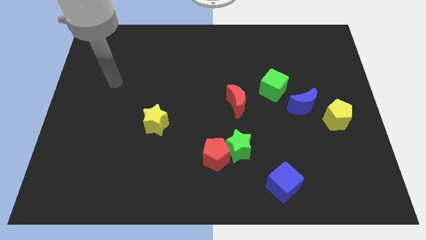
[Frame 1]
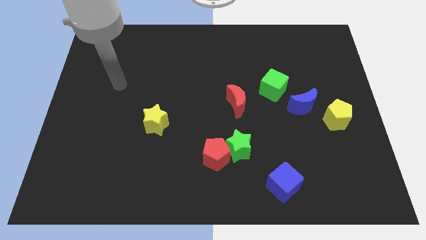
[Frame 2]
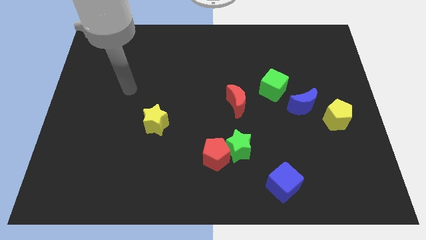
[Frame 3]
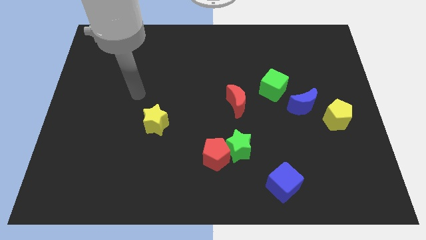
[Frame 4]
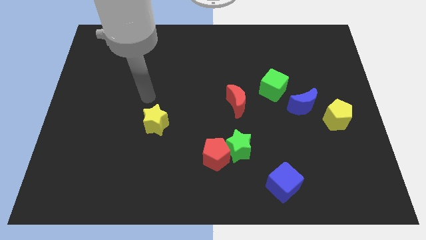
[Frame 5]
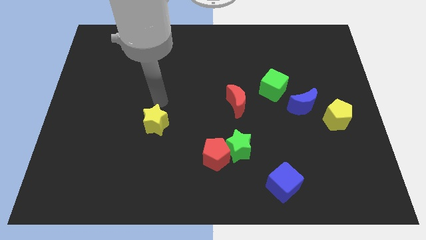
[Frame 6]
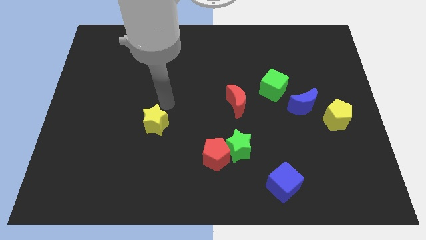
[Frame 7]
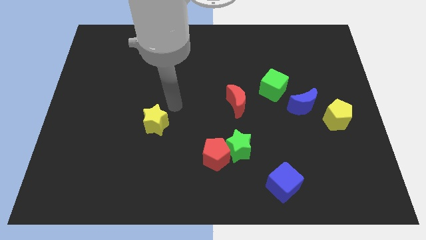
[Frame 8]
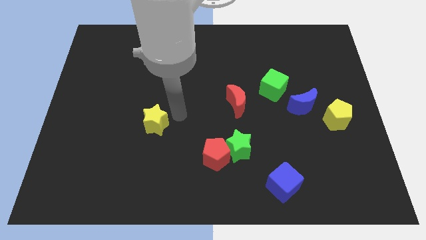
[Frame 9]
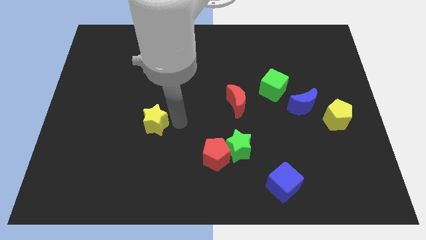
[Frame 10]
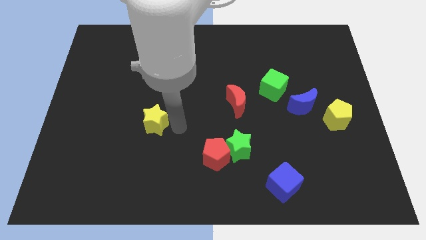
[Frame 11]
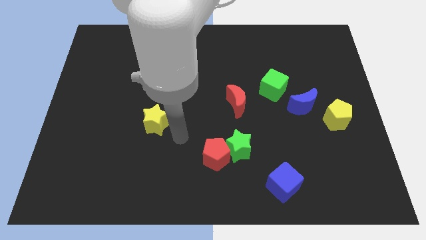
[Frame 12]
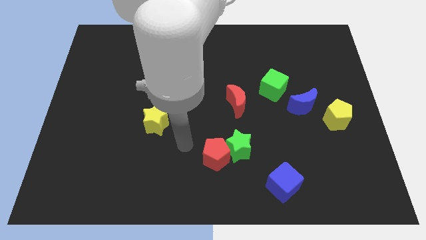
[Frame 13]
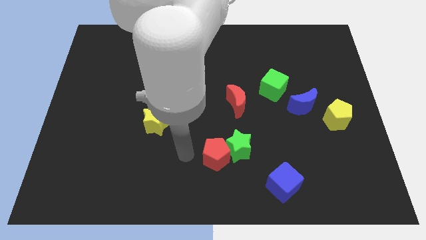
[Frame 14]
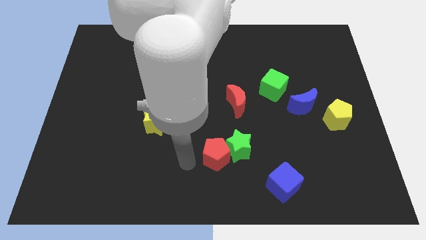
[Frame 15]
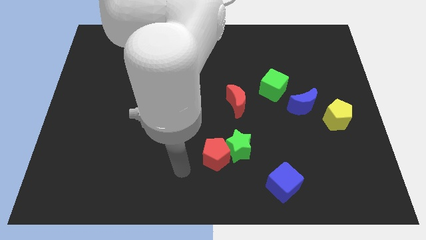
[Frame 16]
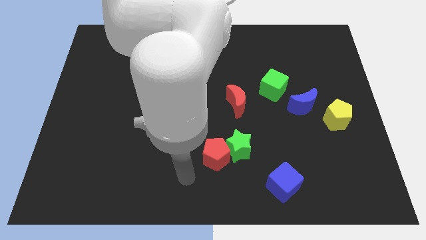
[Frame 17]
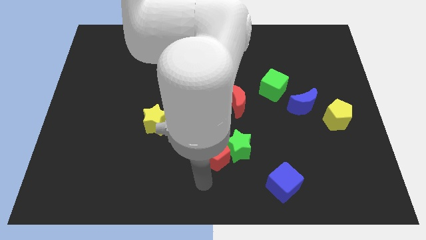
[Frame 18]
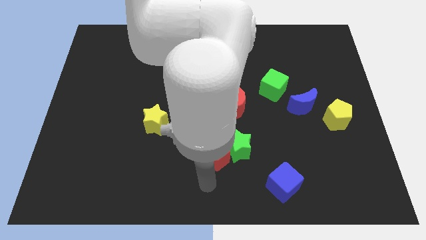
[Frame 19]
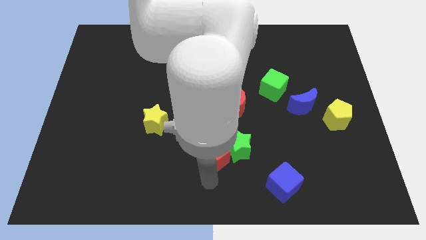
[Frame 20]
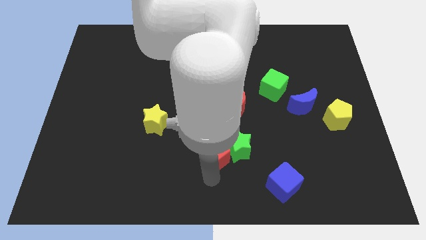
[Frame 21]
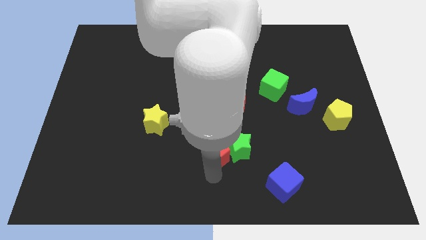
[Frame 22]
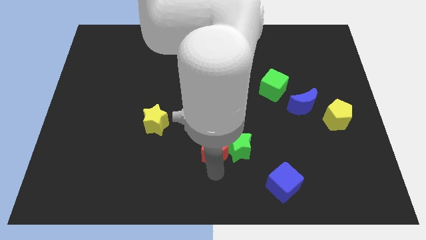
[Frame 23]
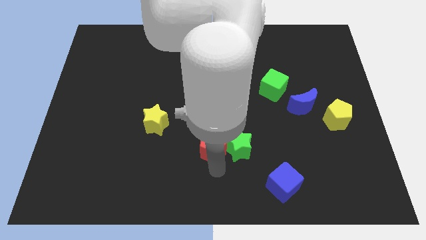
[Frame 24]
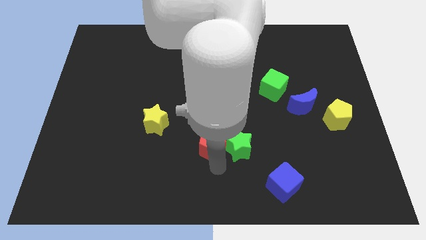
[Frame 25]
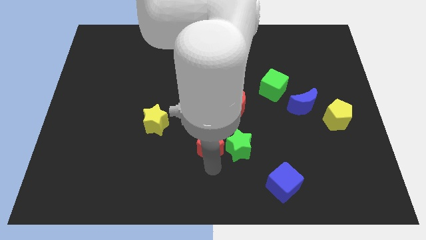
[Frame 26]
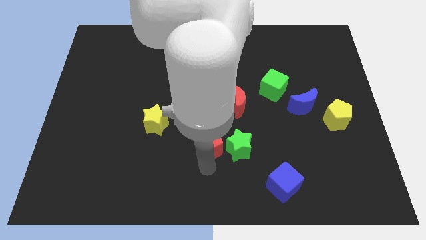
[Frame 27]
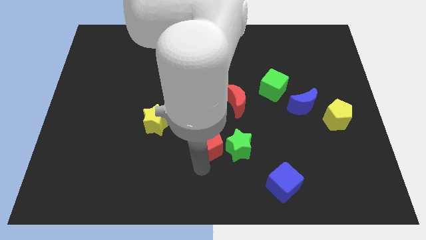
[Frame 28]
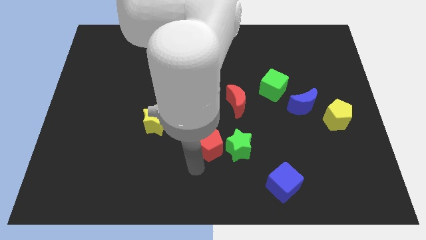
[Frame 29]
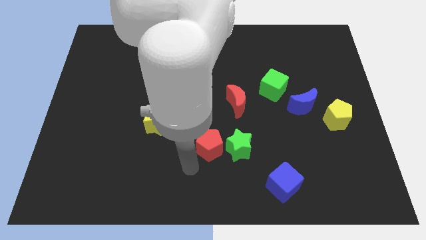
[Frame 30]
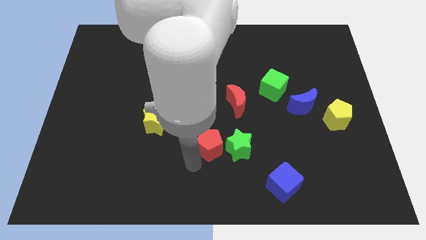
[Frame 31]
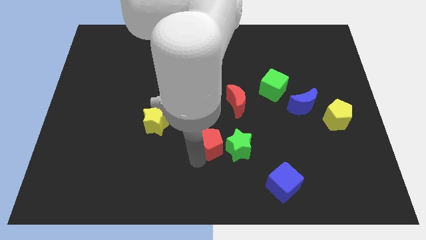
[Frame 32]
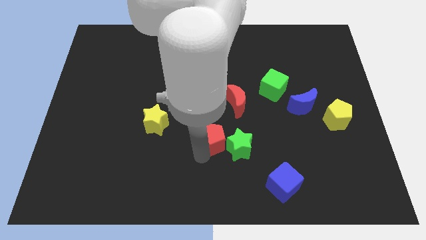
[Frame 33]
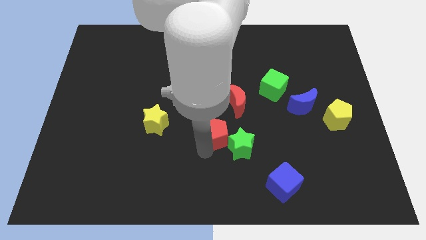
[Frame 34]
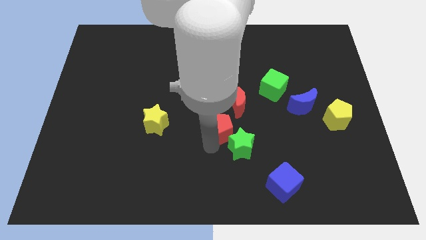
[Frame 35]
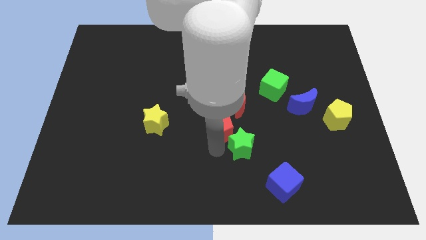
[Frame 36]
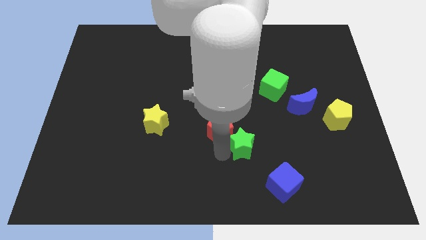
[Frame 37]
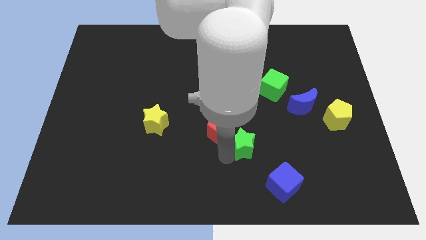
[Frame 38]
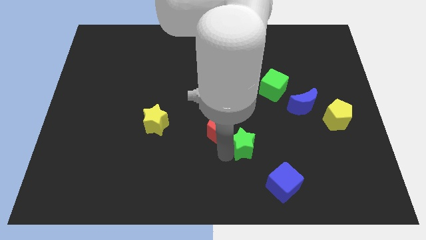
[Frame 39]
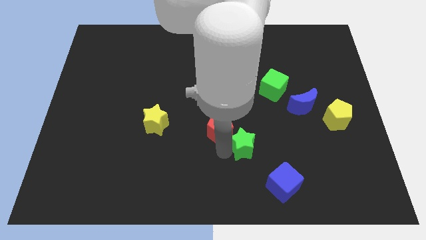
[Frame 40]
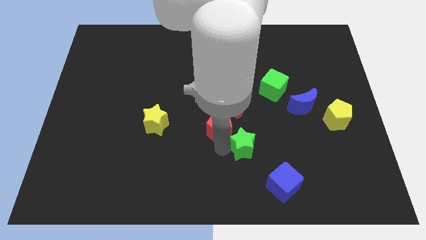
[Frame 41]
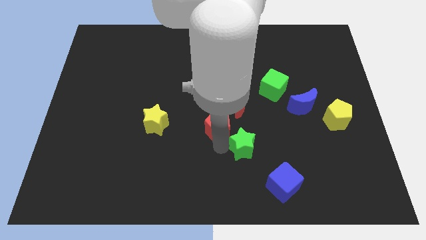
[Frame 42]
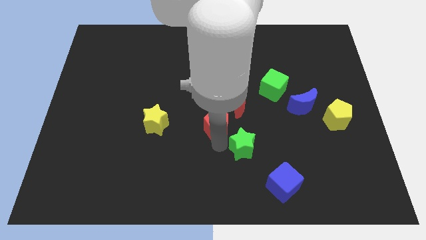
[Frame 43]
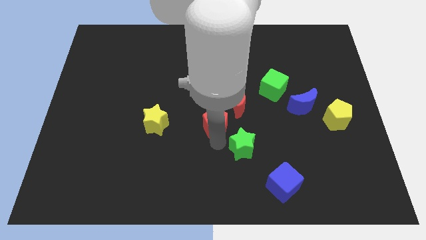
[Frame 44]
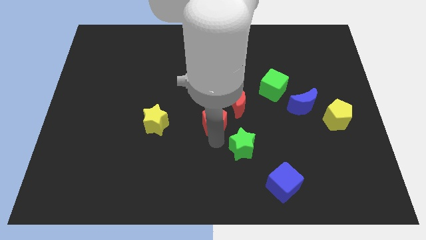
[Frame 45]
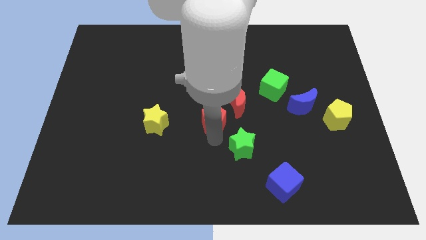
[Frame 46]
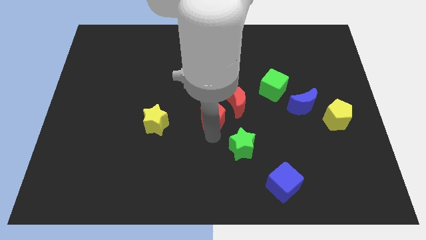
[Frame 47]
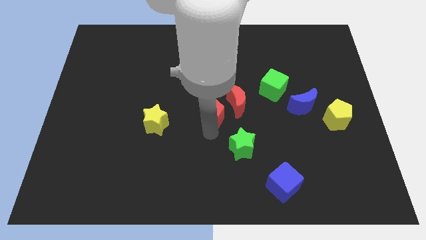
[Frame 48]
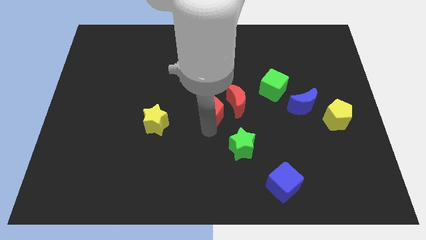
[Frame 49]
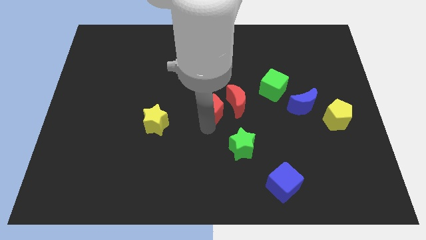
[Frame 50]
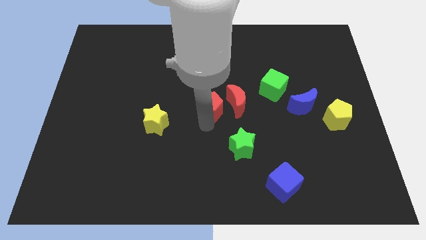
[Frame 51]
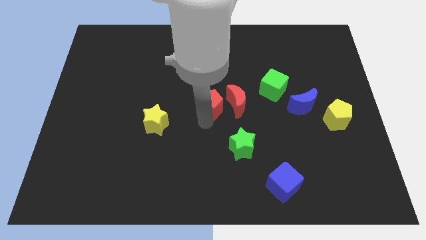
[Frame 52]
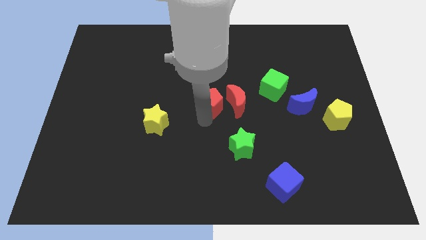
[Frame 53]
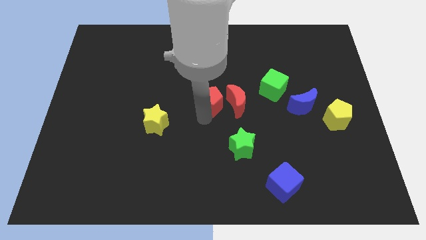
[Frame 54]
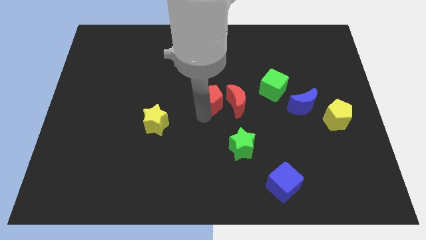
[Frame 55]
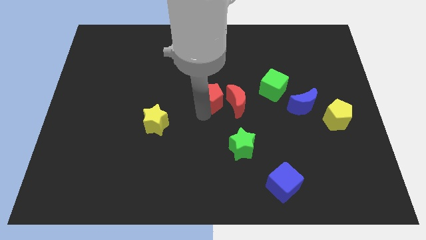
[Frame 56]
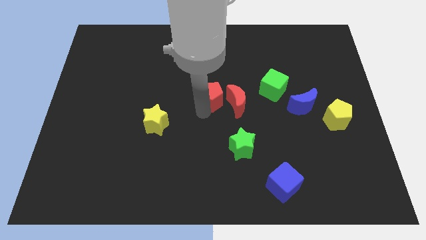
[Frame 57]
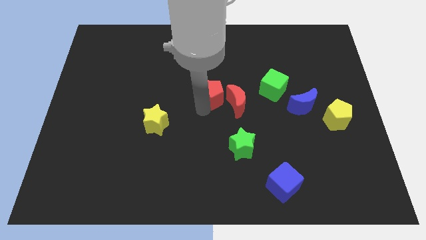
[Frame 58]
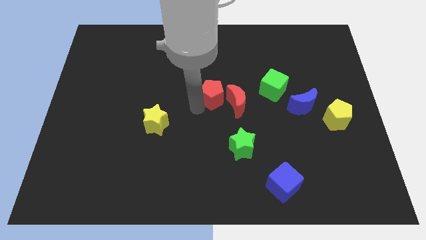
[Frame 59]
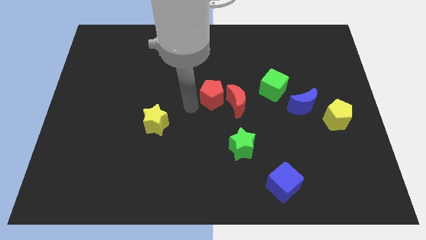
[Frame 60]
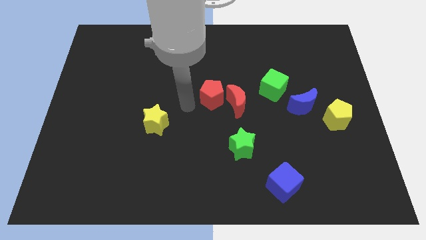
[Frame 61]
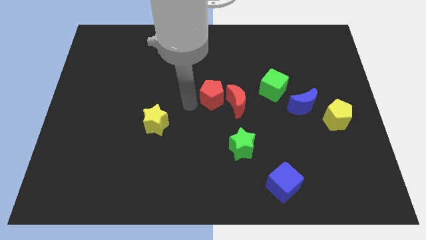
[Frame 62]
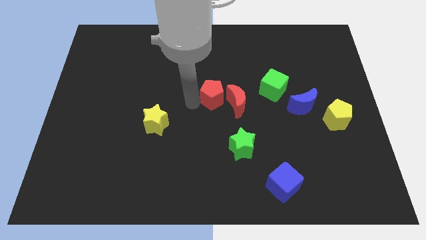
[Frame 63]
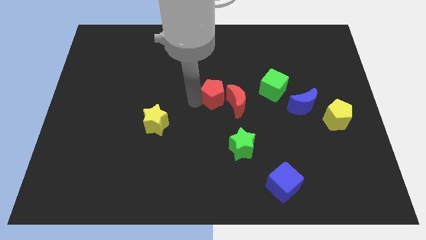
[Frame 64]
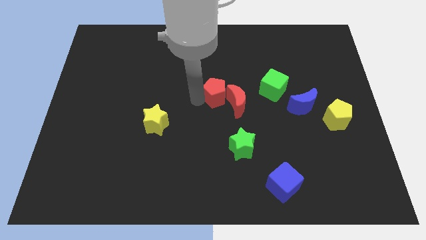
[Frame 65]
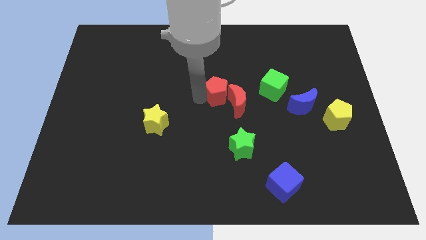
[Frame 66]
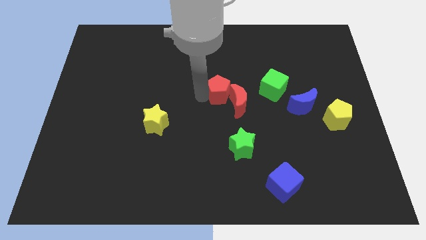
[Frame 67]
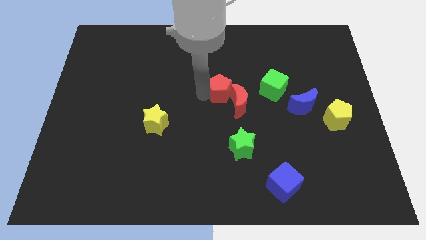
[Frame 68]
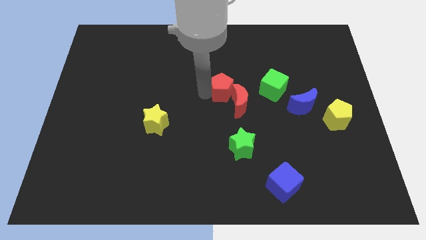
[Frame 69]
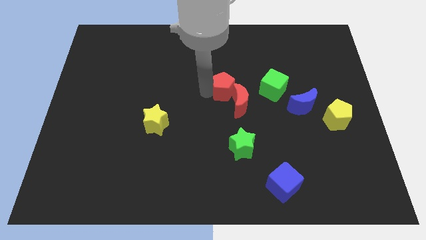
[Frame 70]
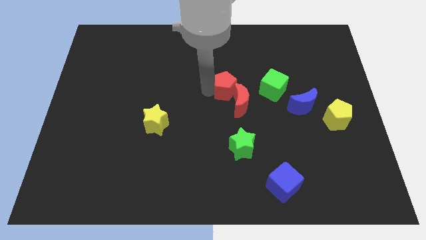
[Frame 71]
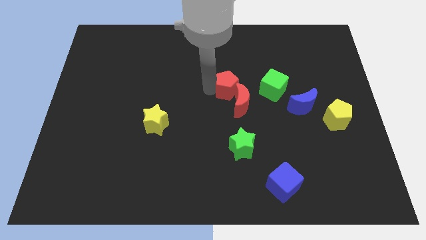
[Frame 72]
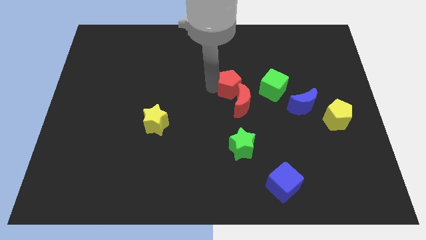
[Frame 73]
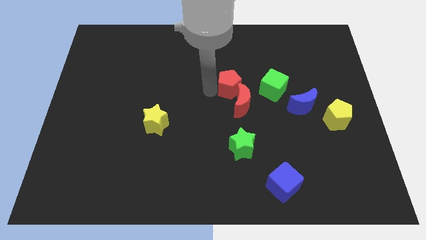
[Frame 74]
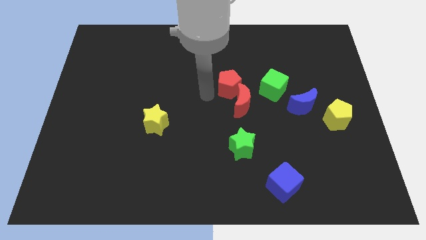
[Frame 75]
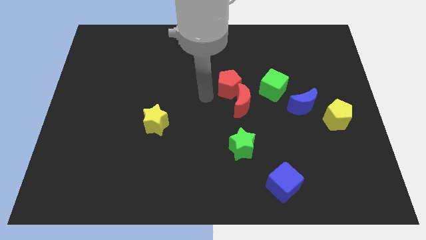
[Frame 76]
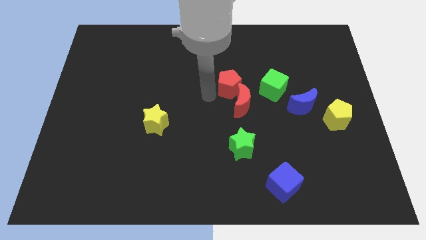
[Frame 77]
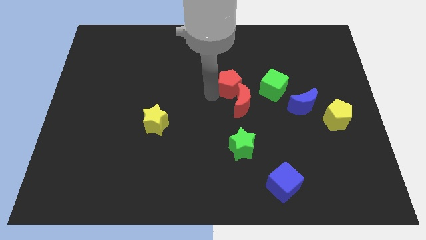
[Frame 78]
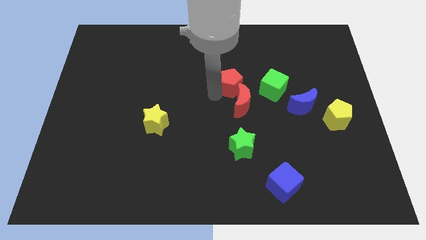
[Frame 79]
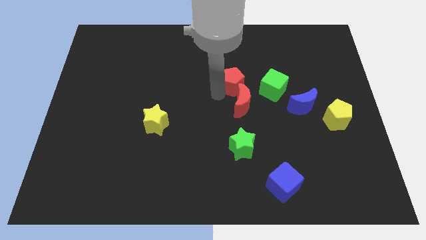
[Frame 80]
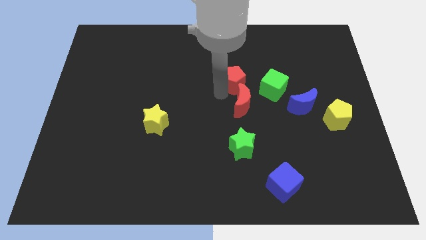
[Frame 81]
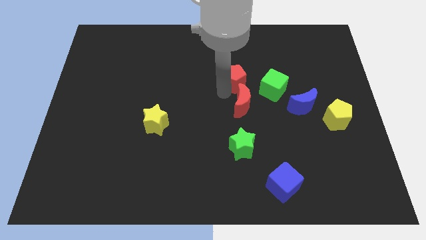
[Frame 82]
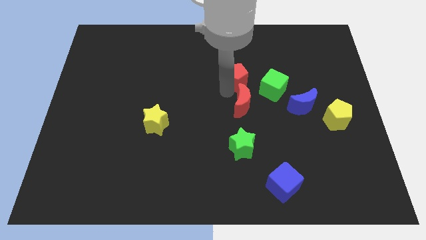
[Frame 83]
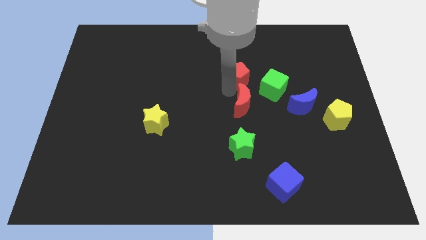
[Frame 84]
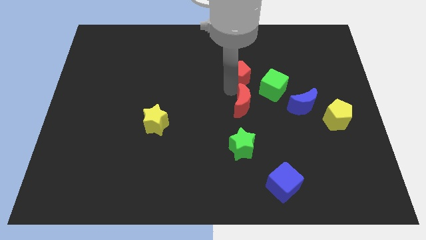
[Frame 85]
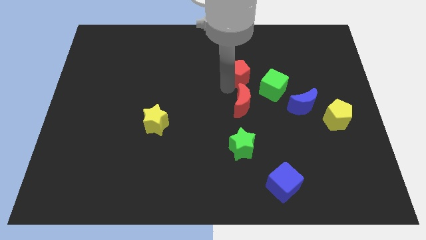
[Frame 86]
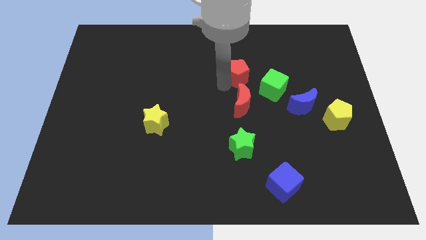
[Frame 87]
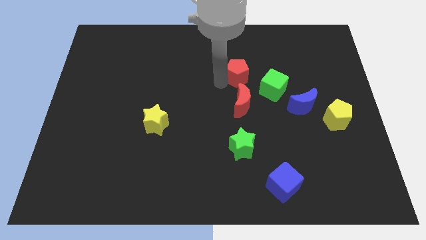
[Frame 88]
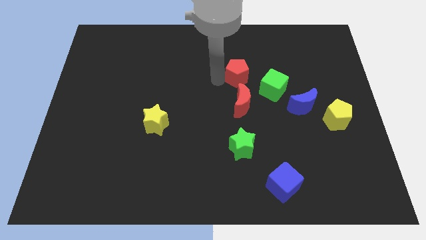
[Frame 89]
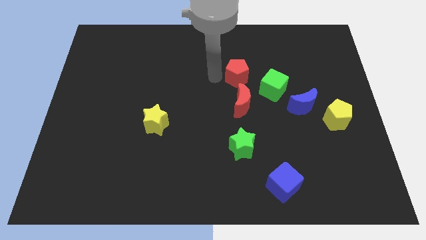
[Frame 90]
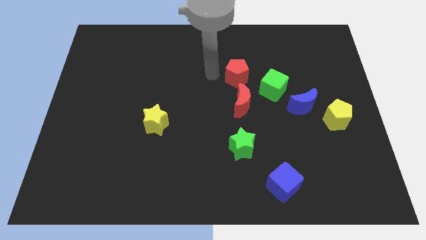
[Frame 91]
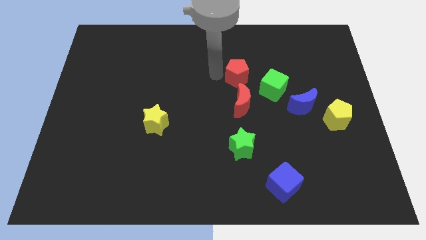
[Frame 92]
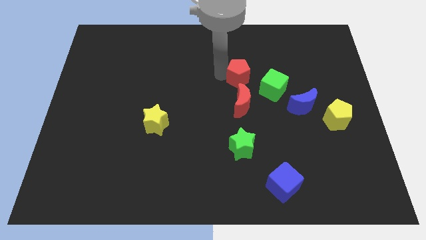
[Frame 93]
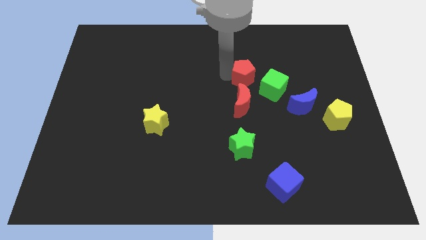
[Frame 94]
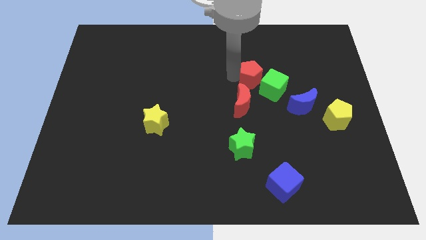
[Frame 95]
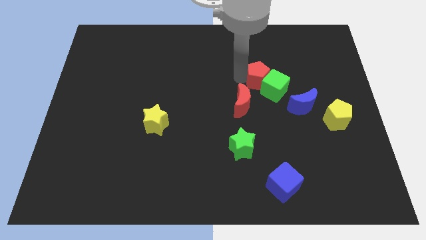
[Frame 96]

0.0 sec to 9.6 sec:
push the red pentagon up and then to the right
